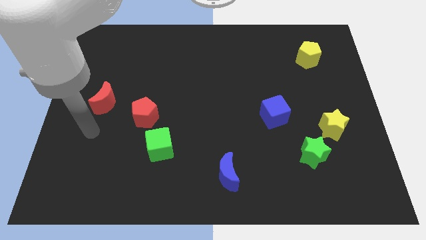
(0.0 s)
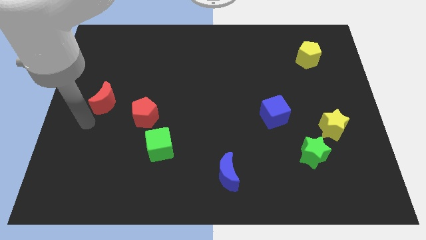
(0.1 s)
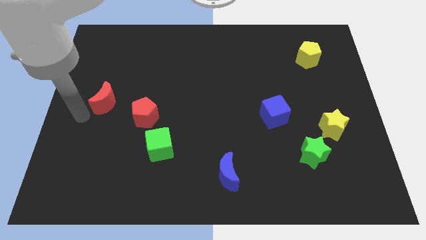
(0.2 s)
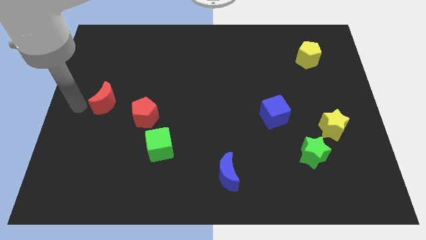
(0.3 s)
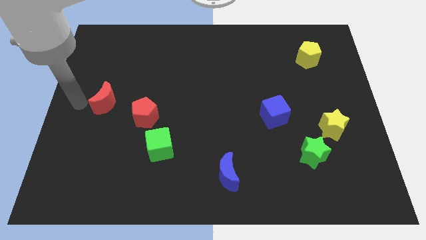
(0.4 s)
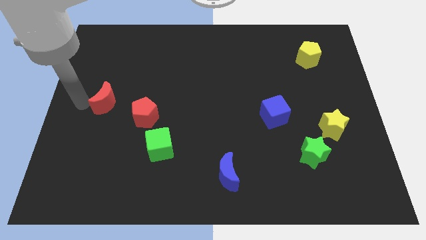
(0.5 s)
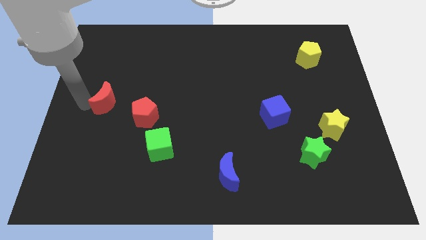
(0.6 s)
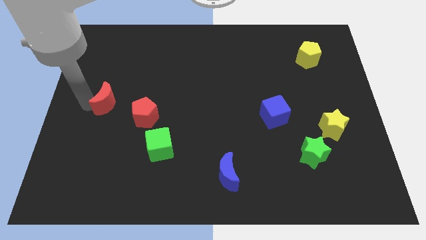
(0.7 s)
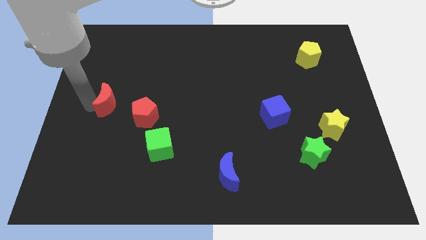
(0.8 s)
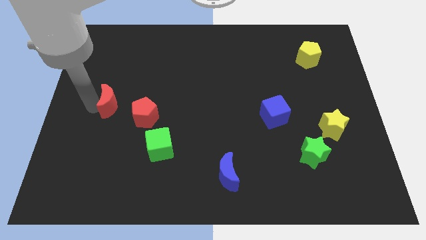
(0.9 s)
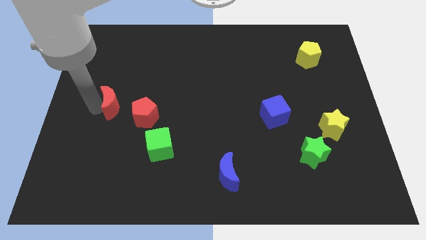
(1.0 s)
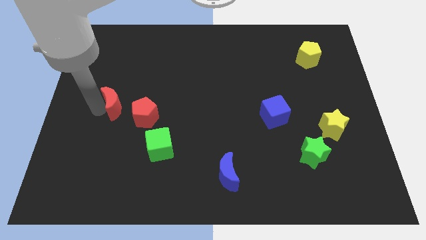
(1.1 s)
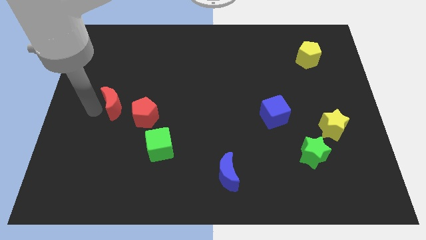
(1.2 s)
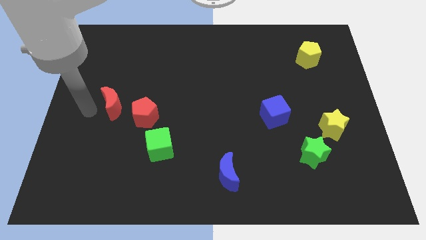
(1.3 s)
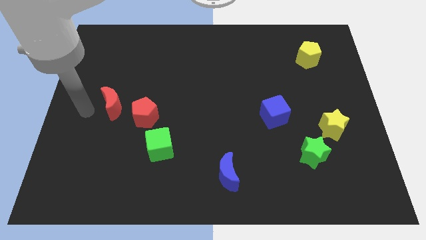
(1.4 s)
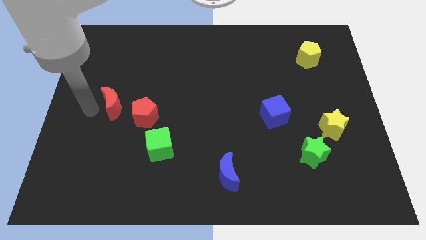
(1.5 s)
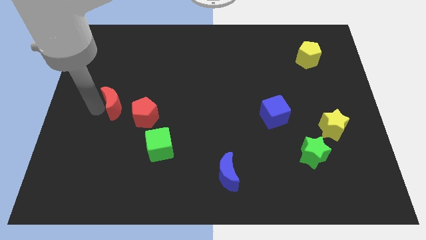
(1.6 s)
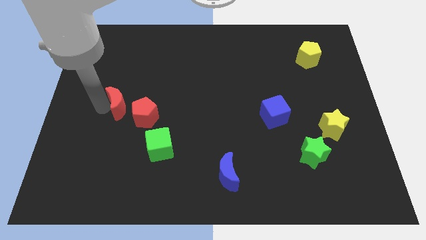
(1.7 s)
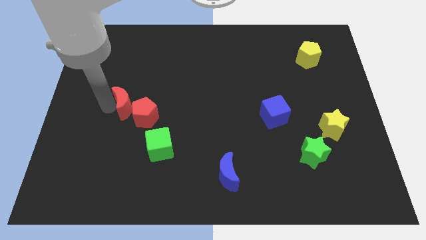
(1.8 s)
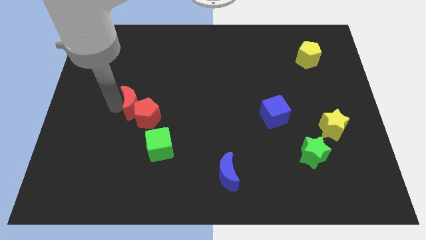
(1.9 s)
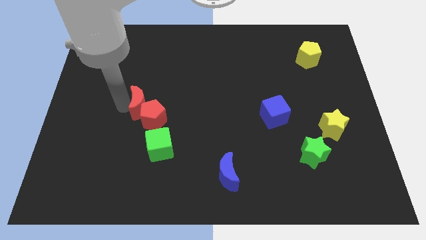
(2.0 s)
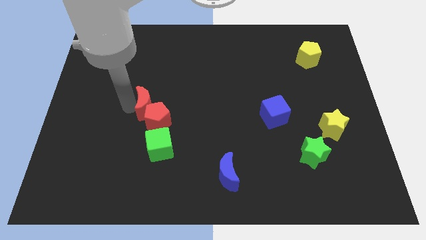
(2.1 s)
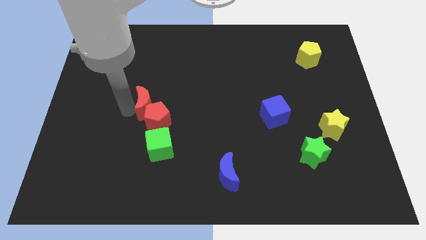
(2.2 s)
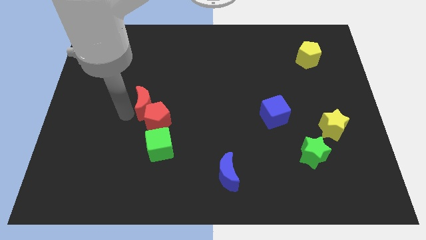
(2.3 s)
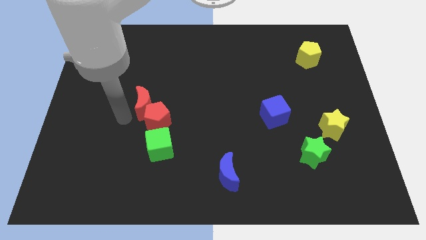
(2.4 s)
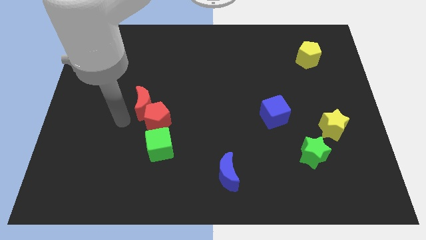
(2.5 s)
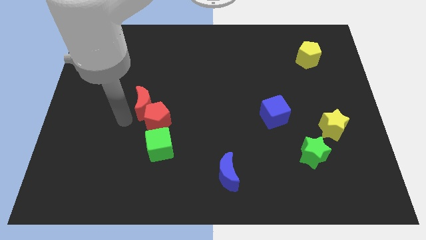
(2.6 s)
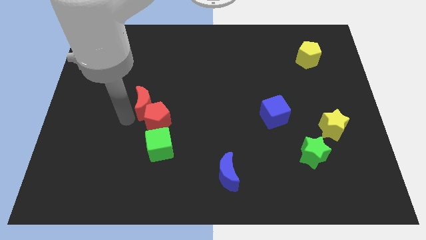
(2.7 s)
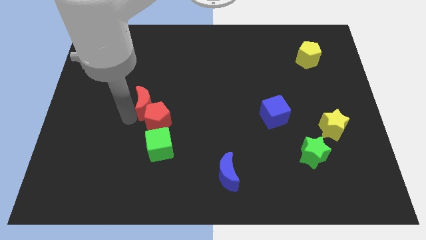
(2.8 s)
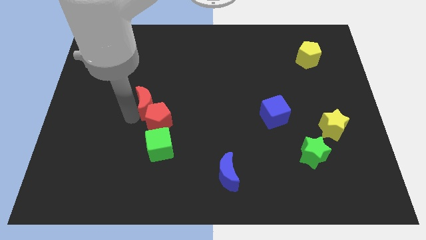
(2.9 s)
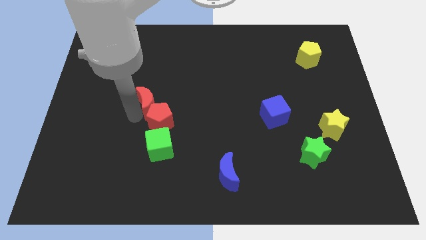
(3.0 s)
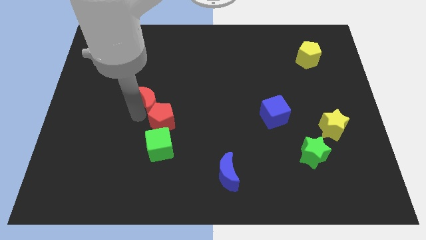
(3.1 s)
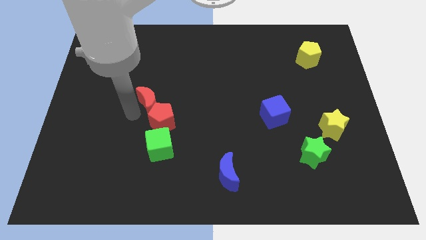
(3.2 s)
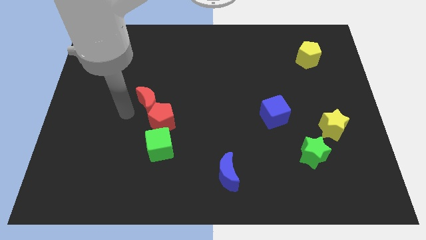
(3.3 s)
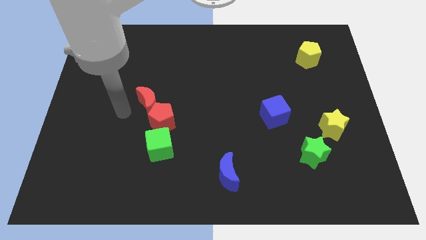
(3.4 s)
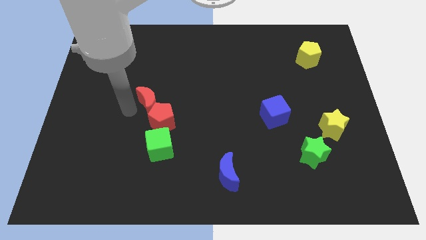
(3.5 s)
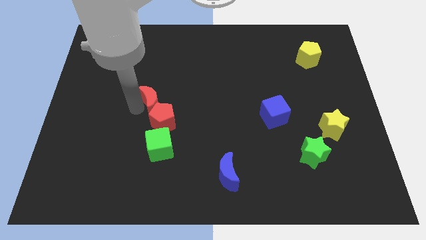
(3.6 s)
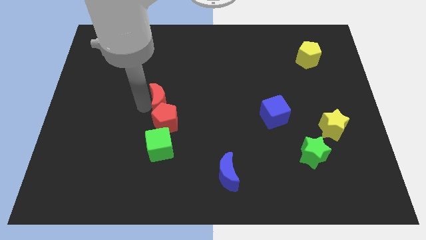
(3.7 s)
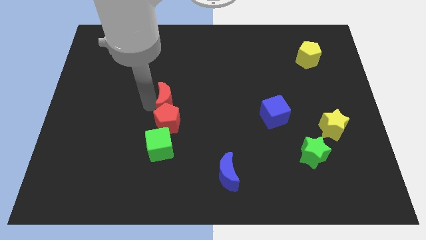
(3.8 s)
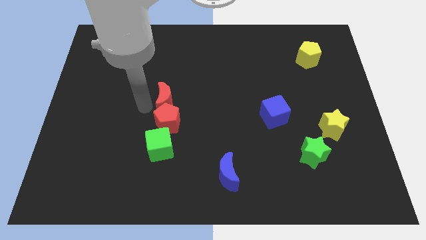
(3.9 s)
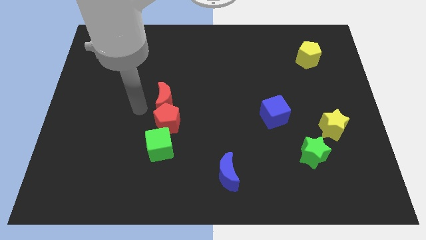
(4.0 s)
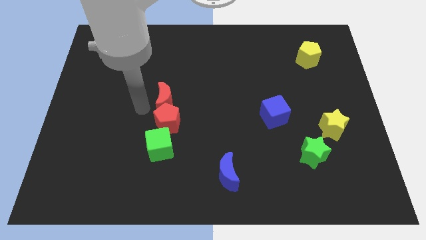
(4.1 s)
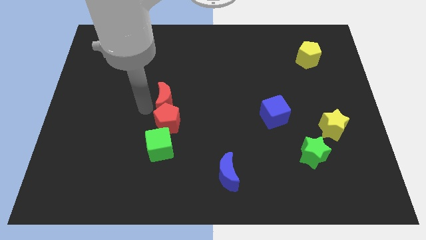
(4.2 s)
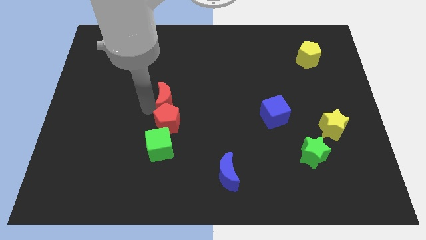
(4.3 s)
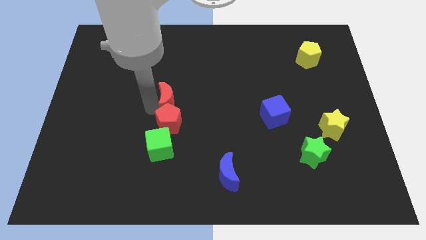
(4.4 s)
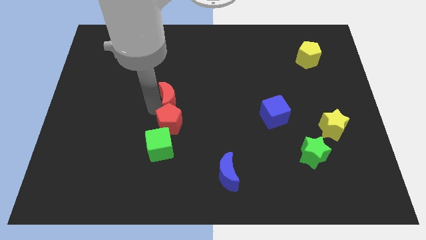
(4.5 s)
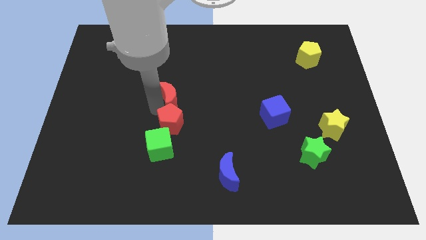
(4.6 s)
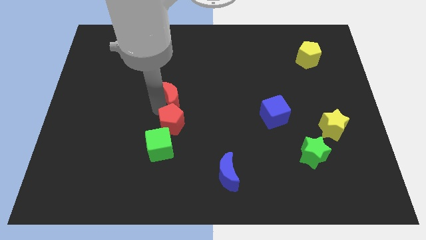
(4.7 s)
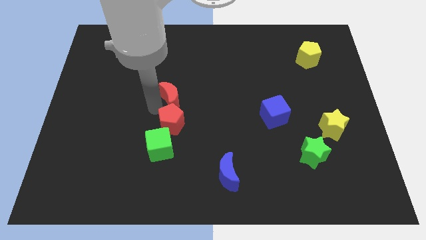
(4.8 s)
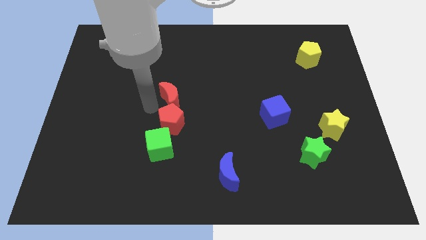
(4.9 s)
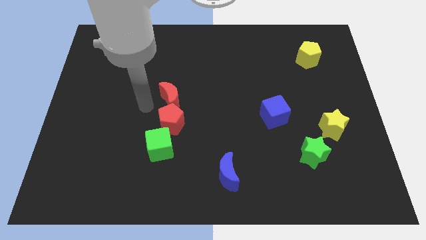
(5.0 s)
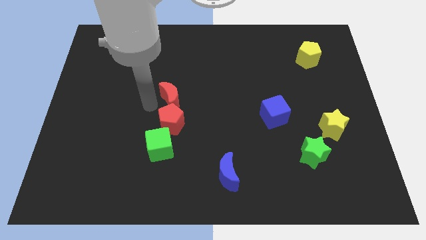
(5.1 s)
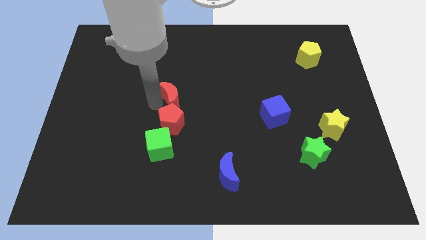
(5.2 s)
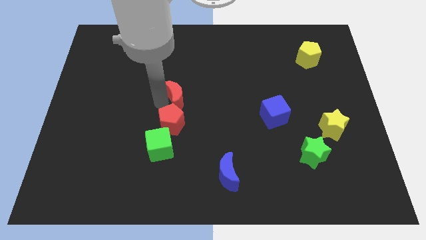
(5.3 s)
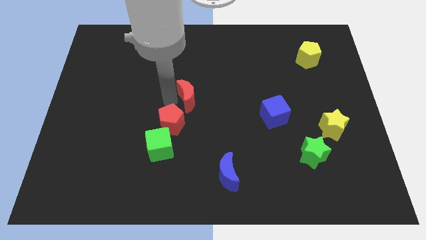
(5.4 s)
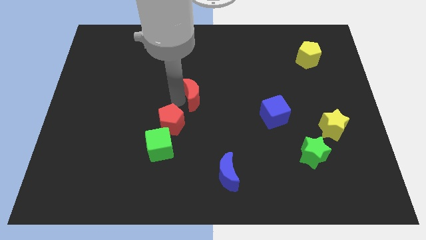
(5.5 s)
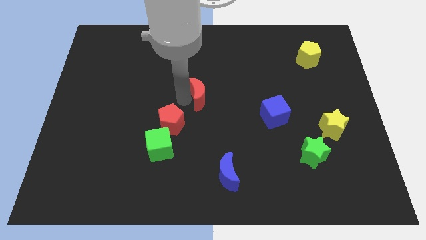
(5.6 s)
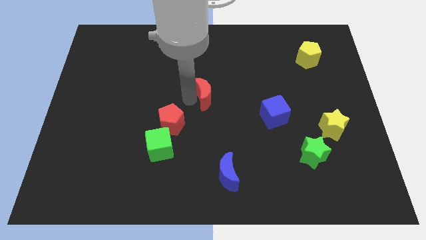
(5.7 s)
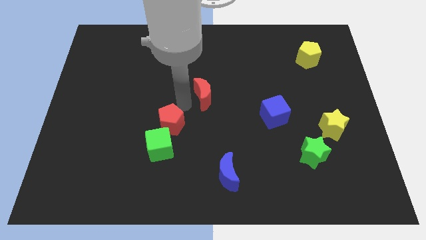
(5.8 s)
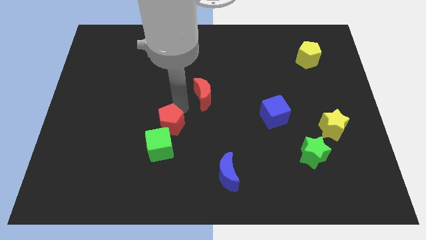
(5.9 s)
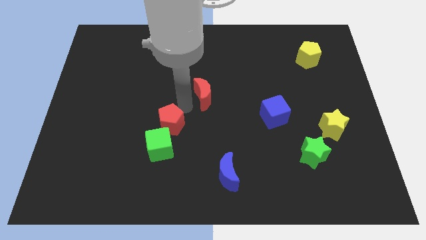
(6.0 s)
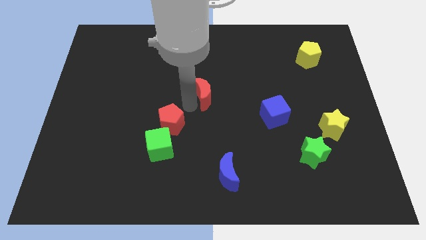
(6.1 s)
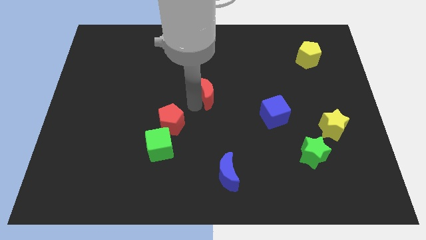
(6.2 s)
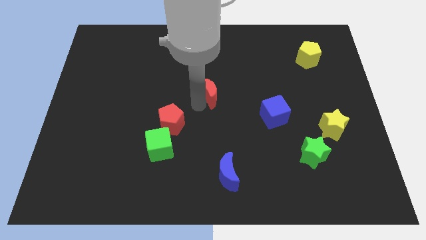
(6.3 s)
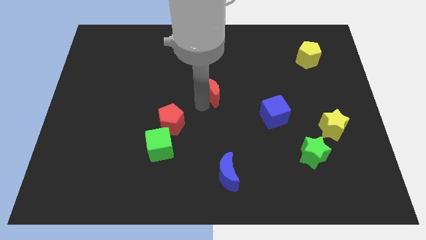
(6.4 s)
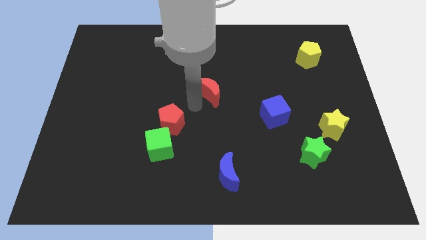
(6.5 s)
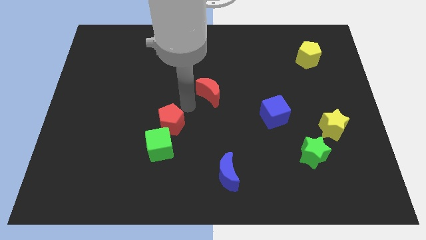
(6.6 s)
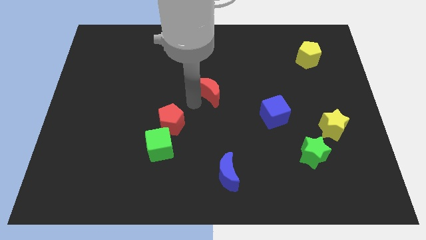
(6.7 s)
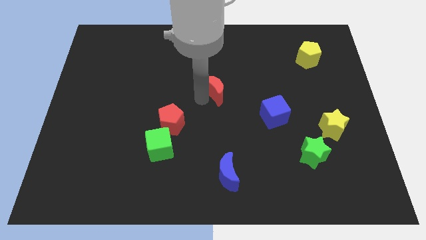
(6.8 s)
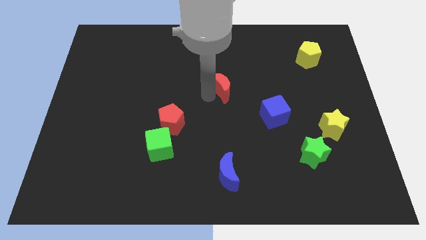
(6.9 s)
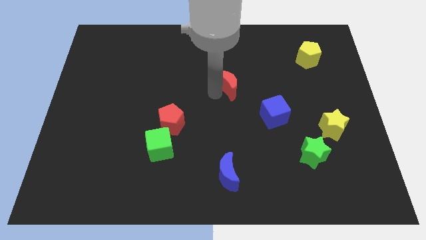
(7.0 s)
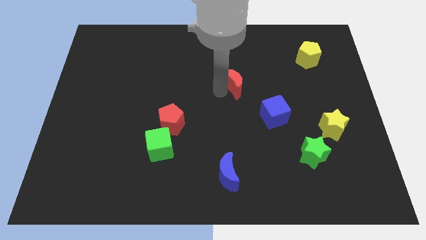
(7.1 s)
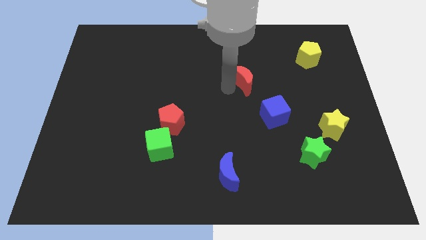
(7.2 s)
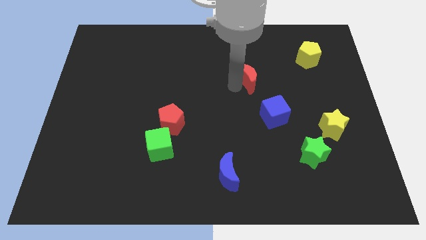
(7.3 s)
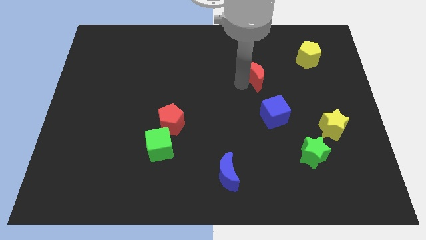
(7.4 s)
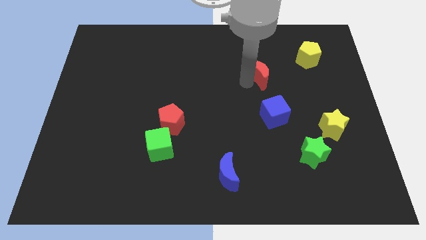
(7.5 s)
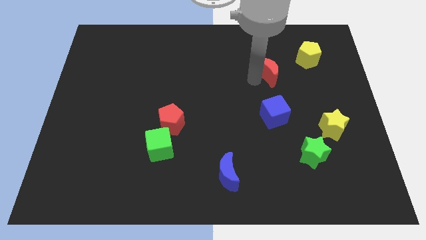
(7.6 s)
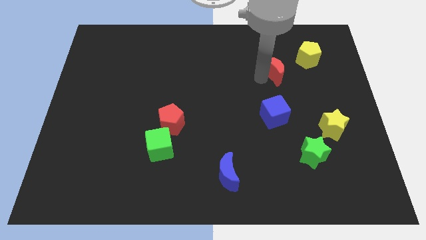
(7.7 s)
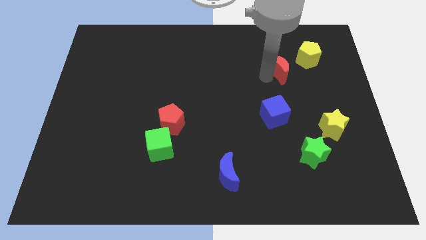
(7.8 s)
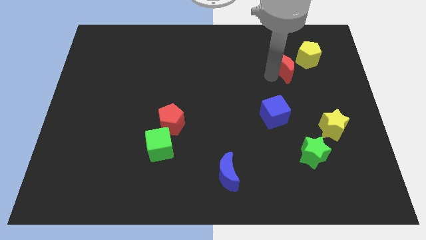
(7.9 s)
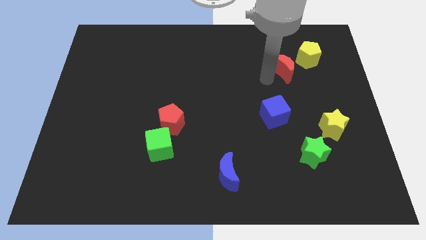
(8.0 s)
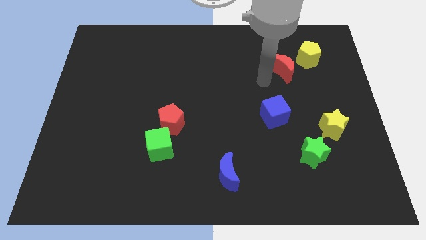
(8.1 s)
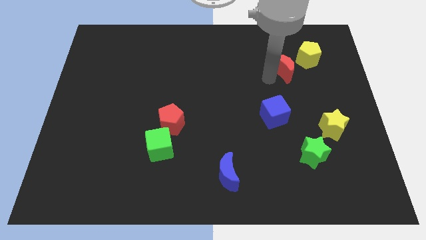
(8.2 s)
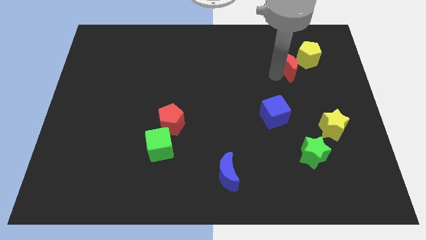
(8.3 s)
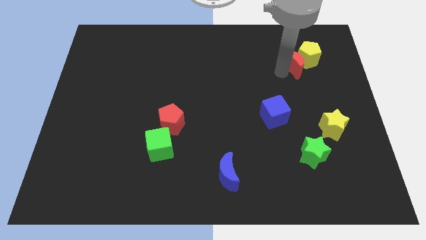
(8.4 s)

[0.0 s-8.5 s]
push the red moon close to the yellow pentagon
